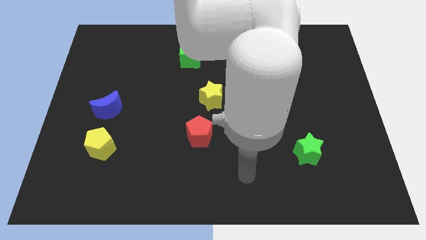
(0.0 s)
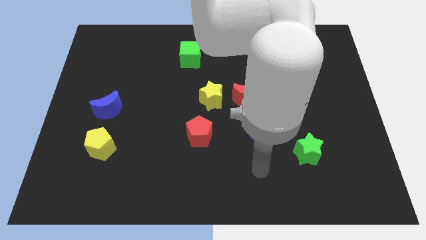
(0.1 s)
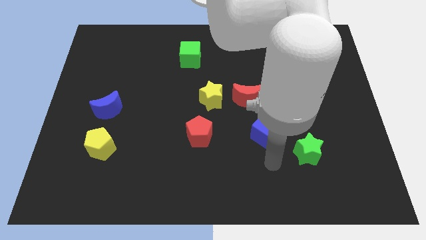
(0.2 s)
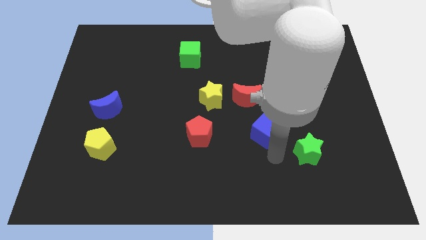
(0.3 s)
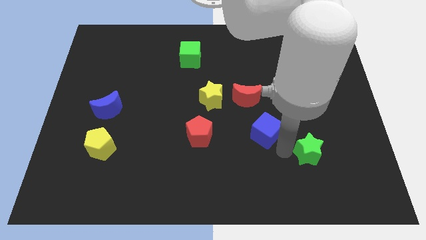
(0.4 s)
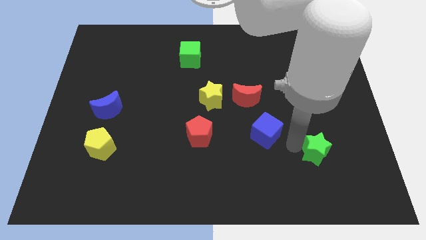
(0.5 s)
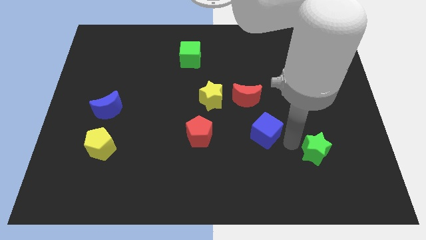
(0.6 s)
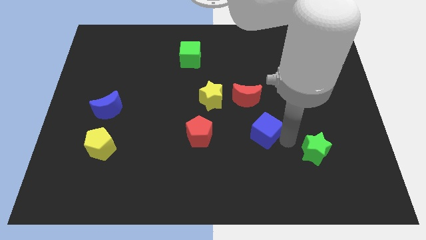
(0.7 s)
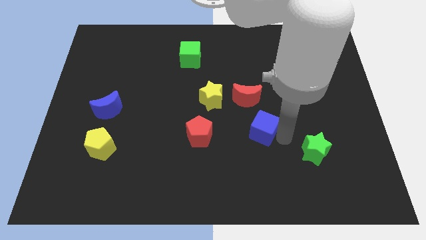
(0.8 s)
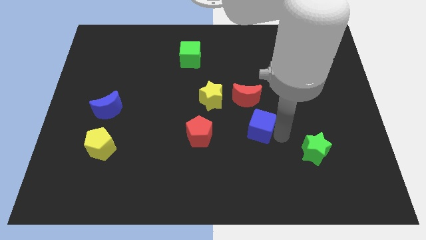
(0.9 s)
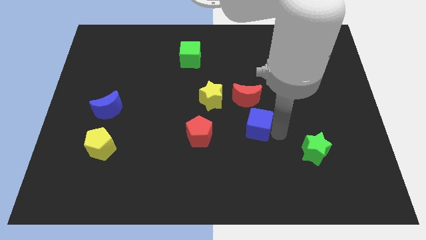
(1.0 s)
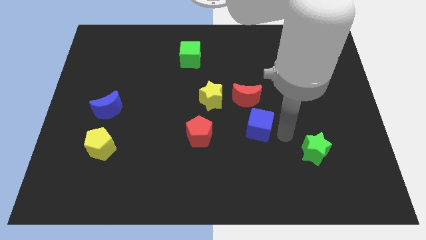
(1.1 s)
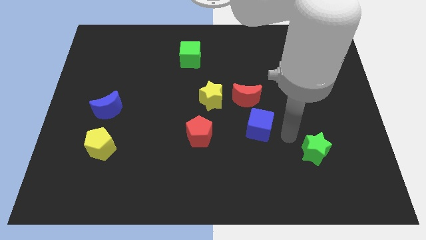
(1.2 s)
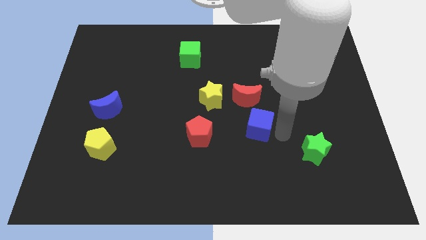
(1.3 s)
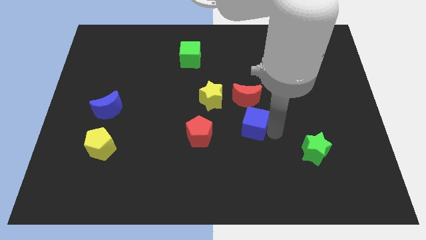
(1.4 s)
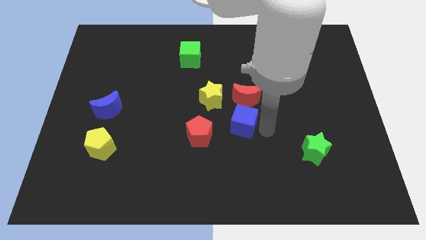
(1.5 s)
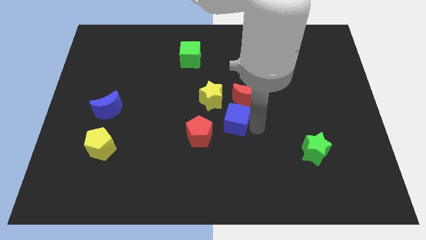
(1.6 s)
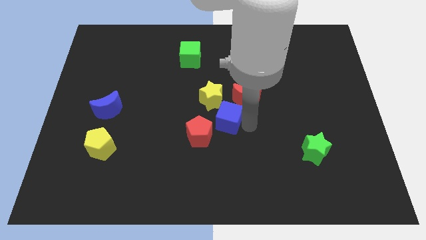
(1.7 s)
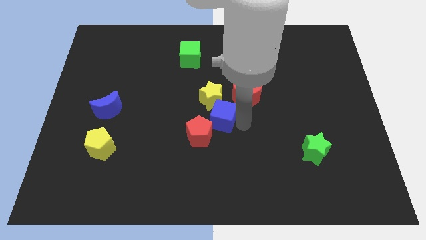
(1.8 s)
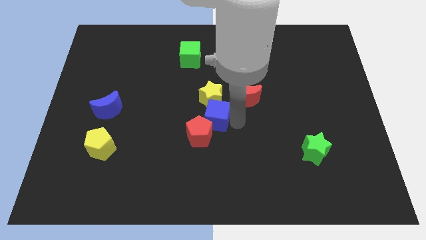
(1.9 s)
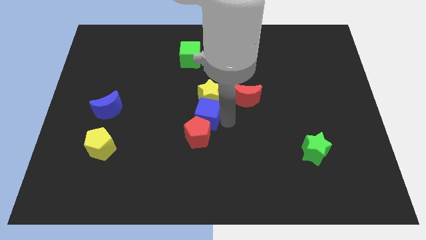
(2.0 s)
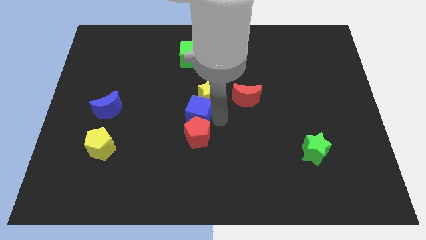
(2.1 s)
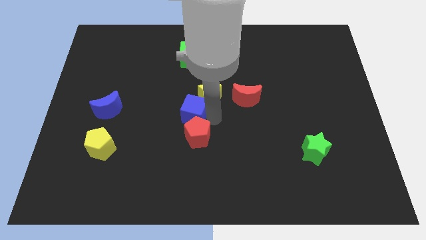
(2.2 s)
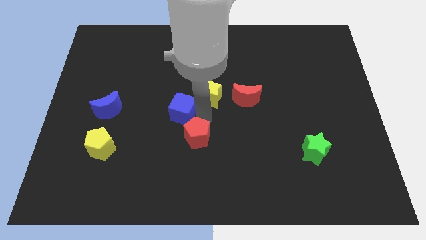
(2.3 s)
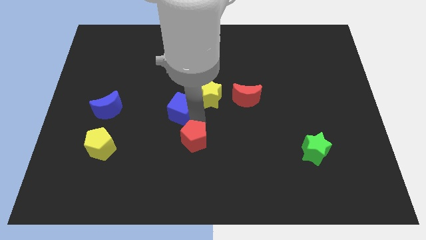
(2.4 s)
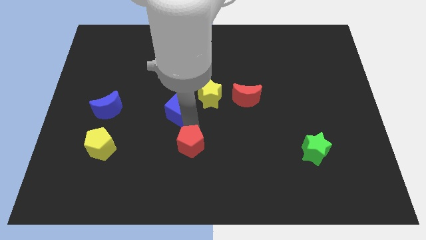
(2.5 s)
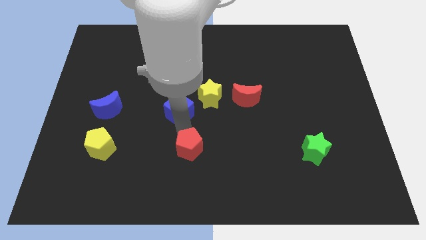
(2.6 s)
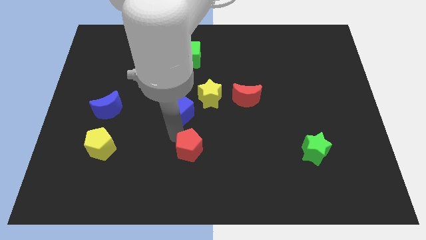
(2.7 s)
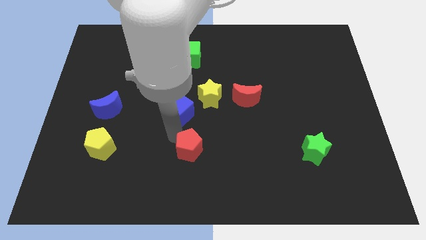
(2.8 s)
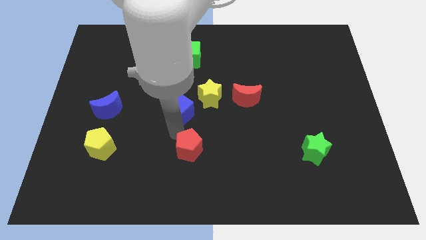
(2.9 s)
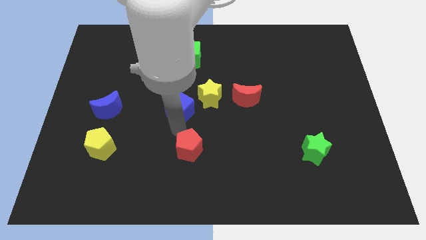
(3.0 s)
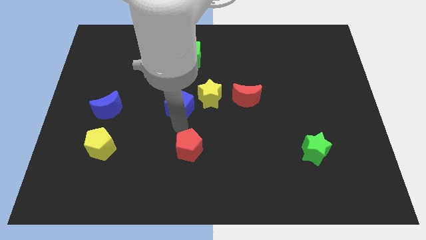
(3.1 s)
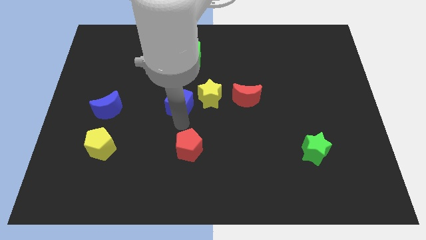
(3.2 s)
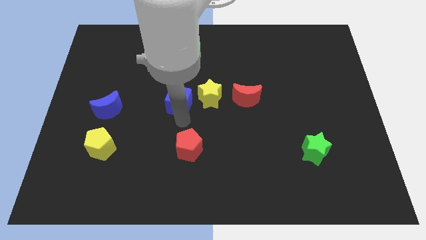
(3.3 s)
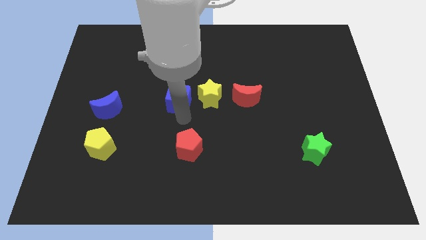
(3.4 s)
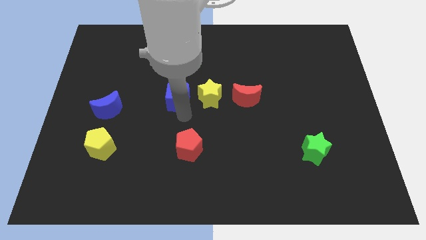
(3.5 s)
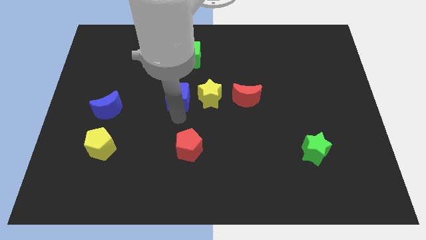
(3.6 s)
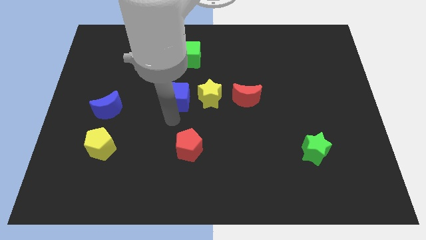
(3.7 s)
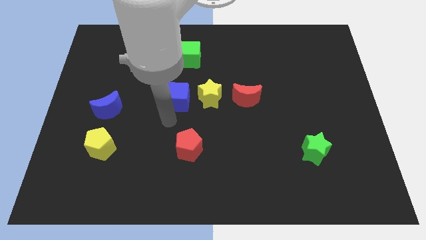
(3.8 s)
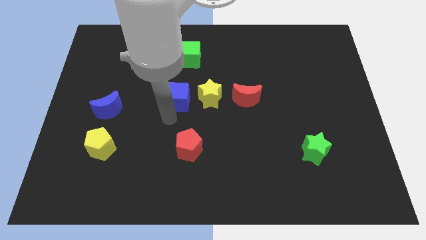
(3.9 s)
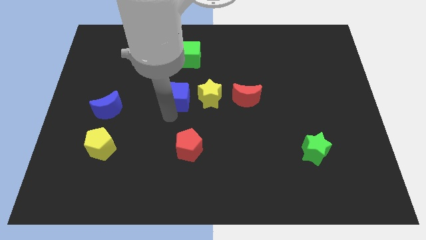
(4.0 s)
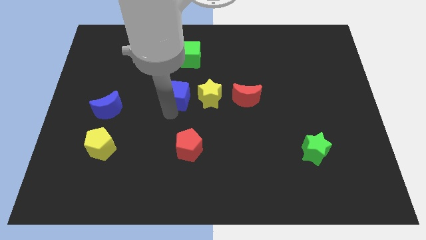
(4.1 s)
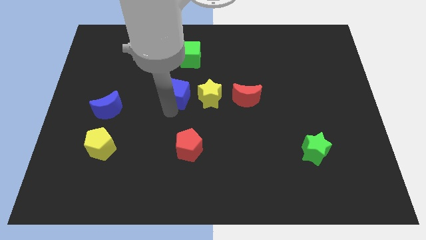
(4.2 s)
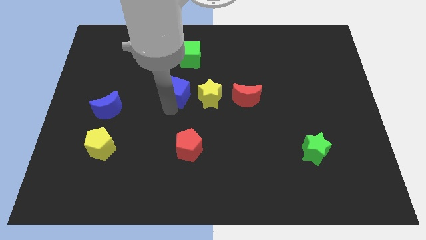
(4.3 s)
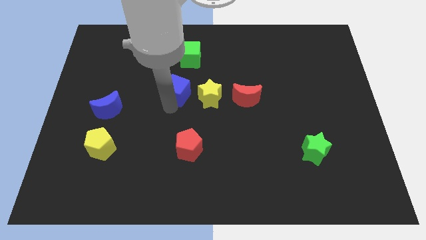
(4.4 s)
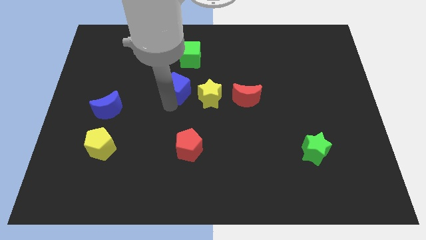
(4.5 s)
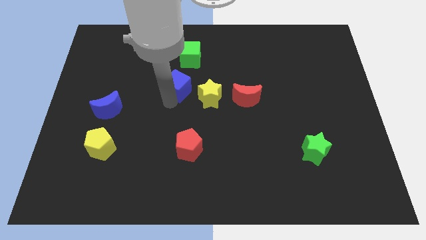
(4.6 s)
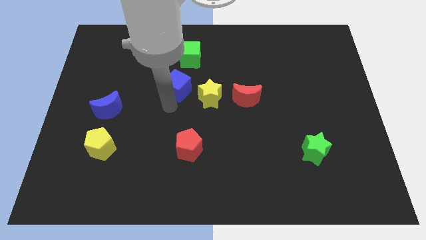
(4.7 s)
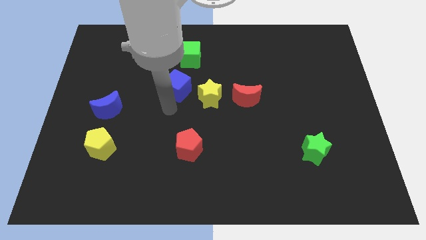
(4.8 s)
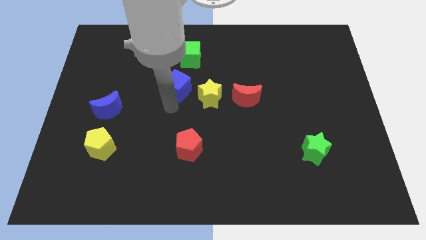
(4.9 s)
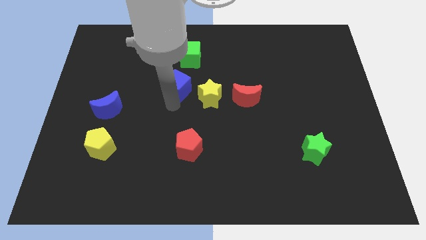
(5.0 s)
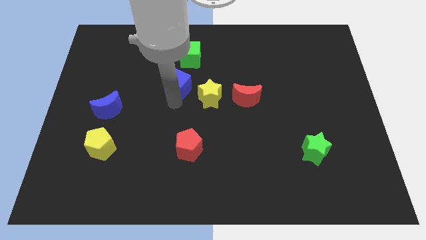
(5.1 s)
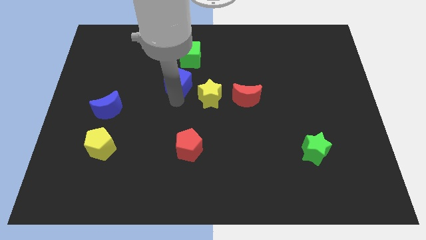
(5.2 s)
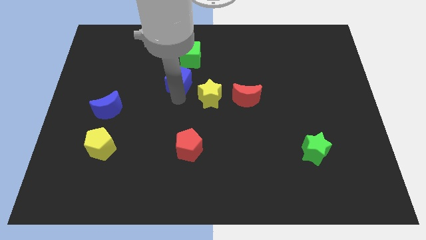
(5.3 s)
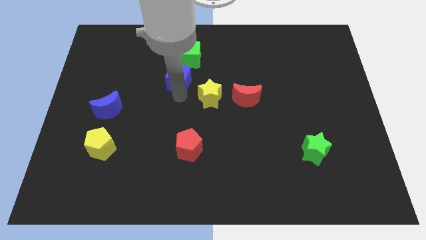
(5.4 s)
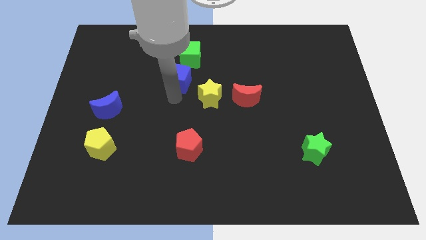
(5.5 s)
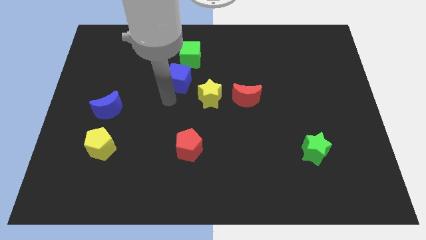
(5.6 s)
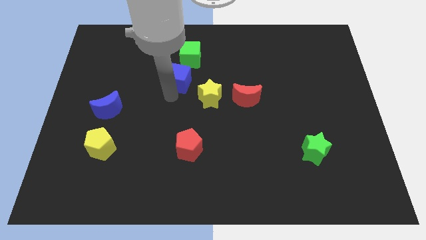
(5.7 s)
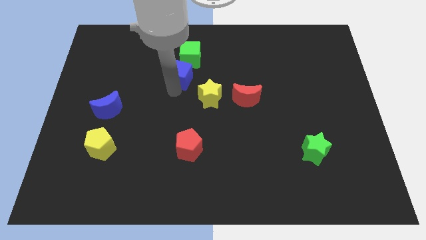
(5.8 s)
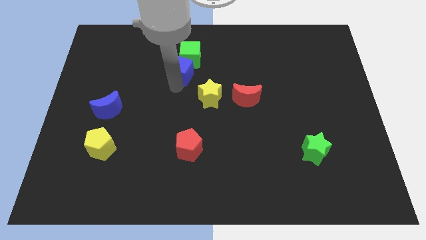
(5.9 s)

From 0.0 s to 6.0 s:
slide the blue cube next to the green cube
